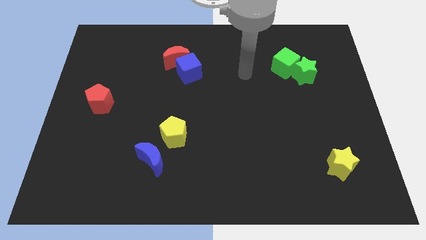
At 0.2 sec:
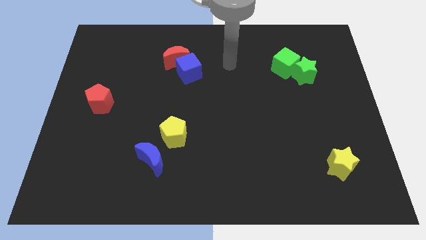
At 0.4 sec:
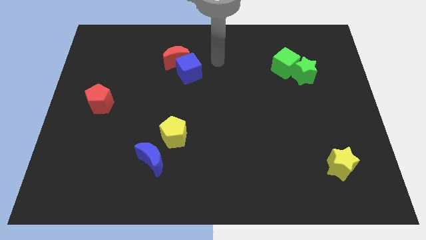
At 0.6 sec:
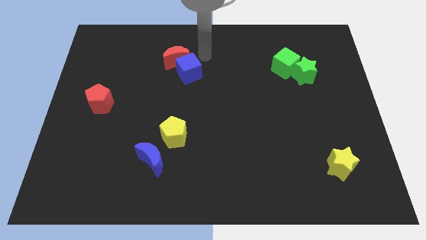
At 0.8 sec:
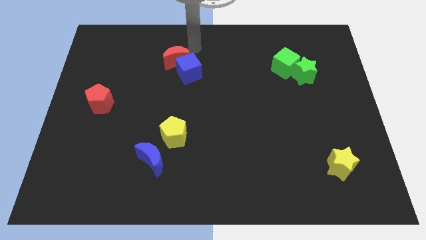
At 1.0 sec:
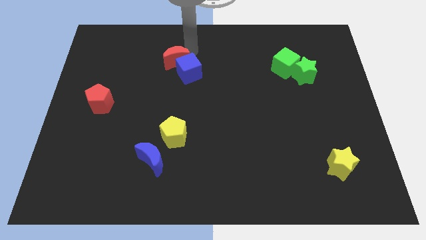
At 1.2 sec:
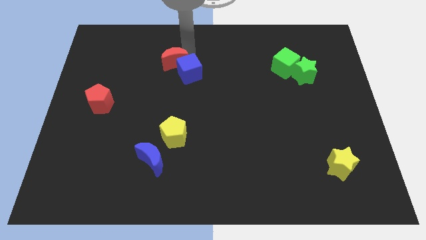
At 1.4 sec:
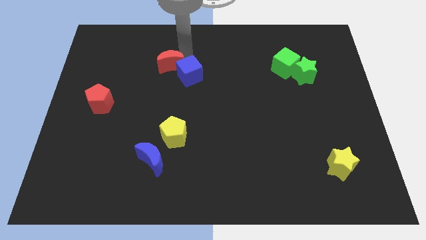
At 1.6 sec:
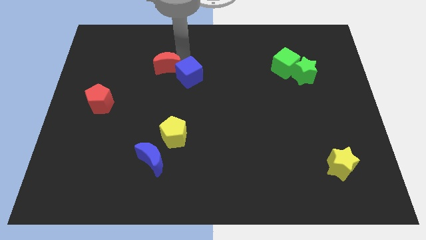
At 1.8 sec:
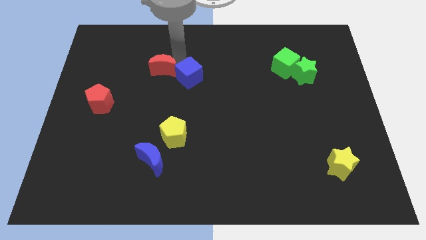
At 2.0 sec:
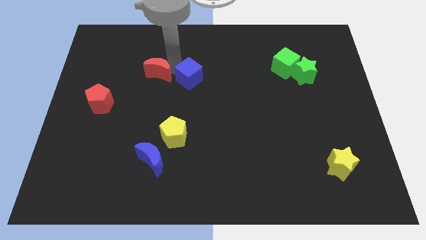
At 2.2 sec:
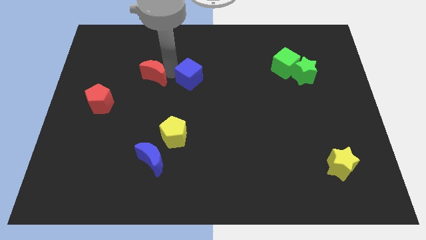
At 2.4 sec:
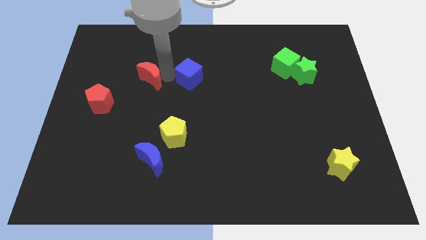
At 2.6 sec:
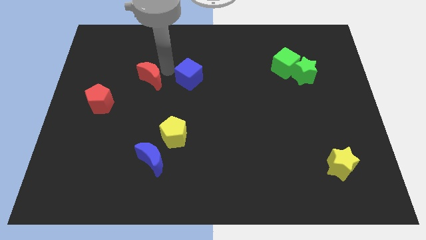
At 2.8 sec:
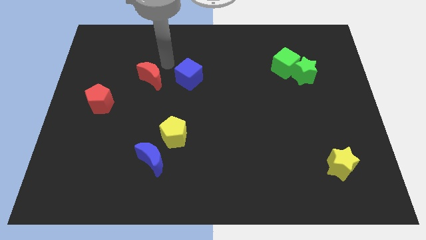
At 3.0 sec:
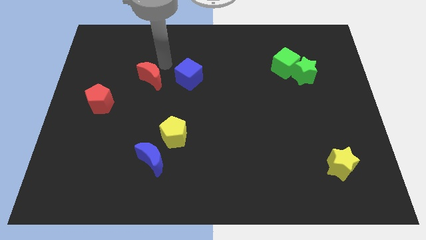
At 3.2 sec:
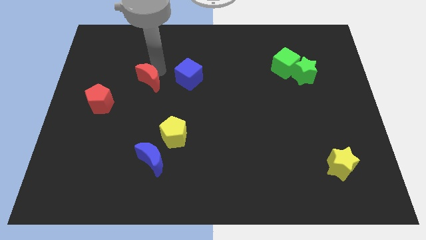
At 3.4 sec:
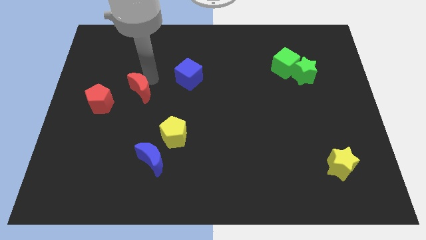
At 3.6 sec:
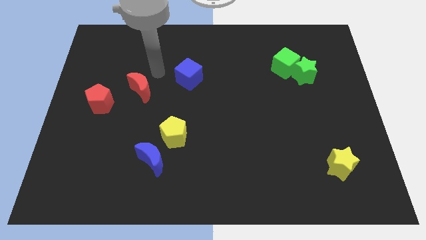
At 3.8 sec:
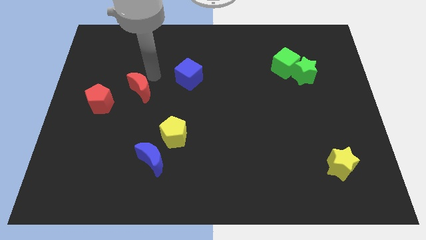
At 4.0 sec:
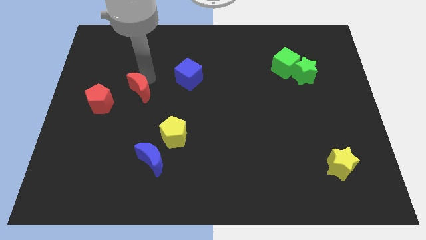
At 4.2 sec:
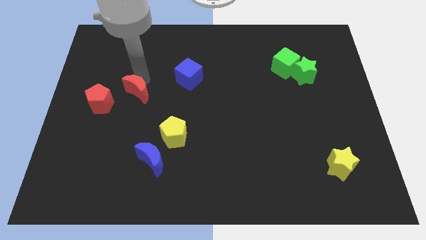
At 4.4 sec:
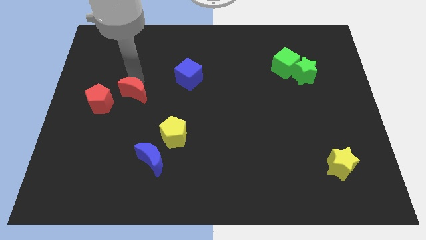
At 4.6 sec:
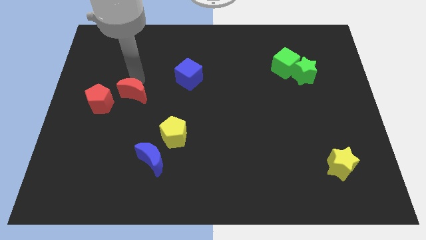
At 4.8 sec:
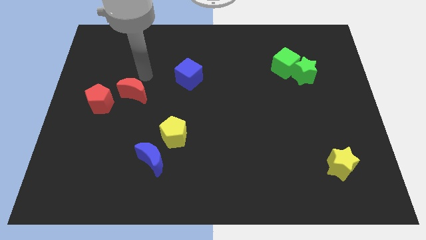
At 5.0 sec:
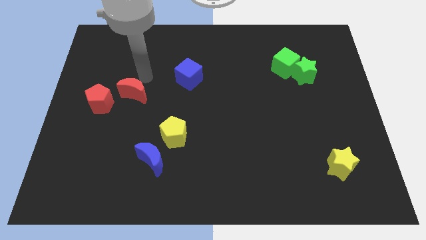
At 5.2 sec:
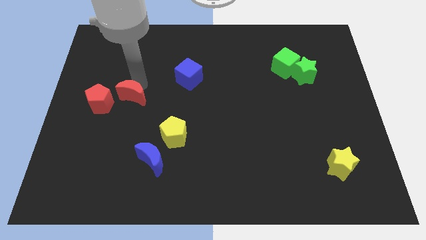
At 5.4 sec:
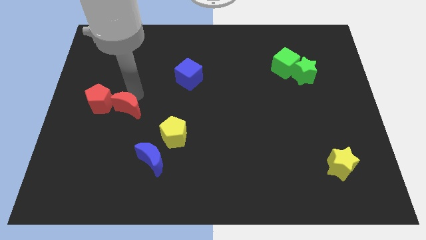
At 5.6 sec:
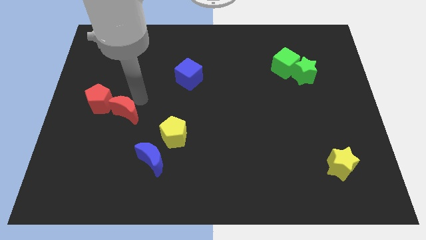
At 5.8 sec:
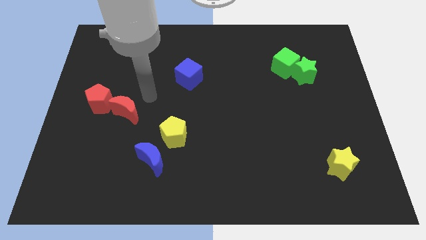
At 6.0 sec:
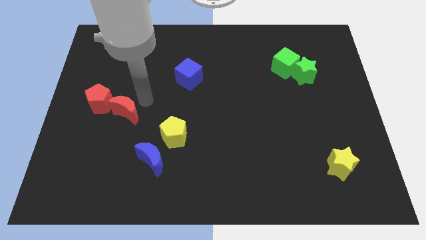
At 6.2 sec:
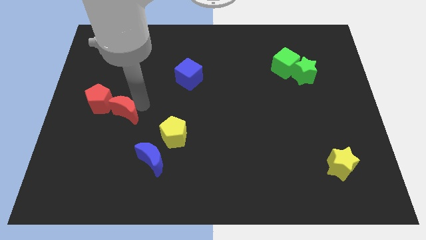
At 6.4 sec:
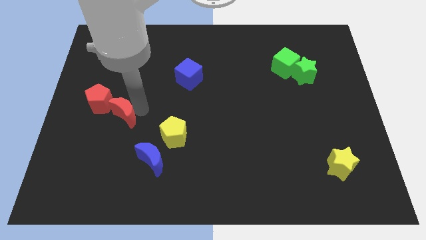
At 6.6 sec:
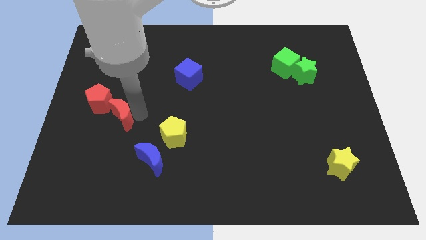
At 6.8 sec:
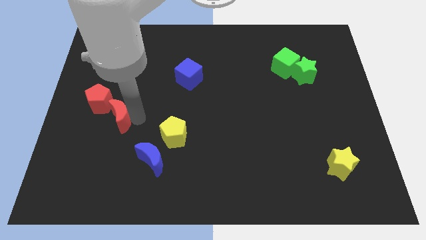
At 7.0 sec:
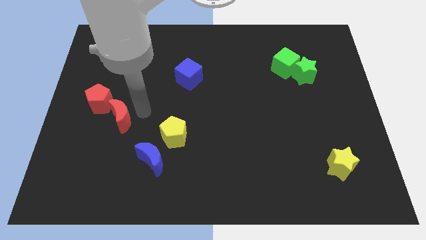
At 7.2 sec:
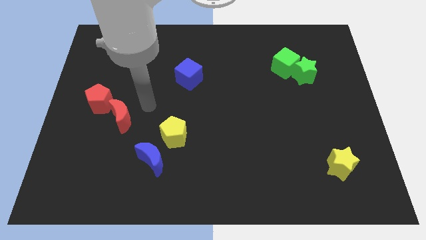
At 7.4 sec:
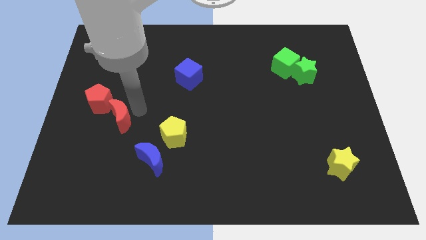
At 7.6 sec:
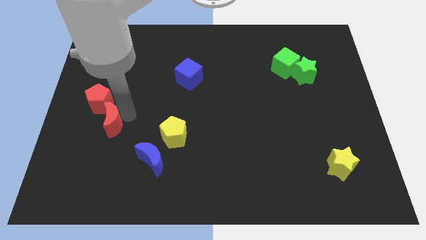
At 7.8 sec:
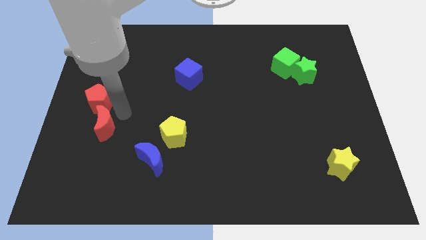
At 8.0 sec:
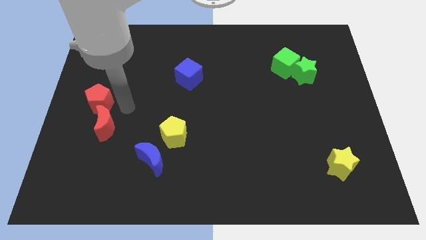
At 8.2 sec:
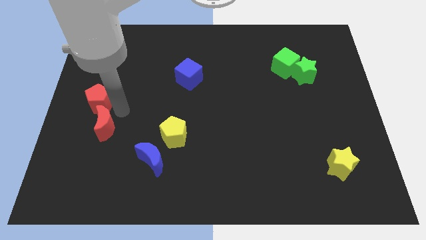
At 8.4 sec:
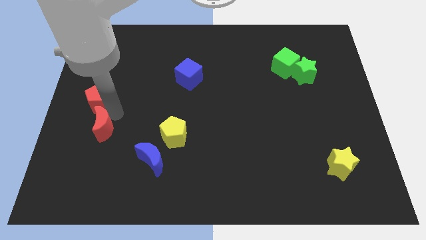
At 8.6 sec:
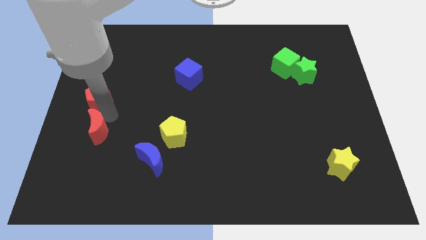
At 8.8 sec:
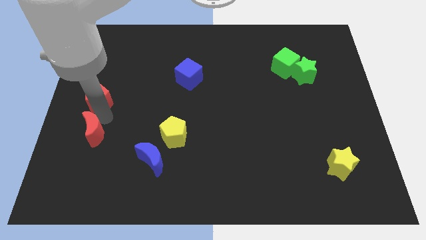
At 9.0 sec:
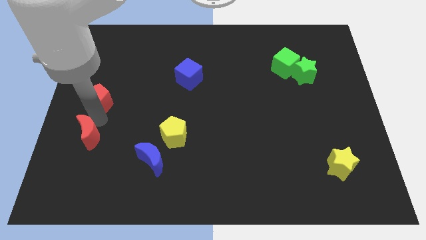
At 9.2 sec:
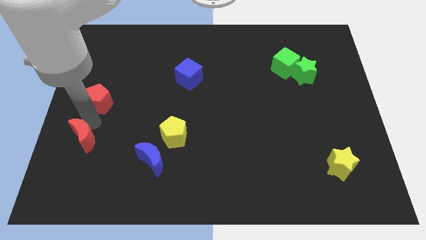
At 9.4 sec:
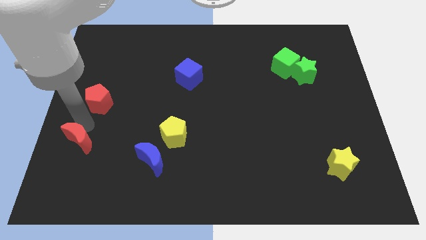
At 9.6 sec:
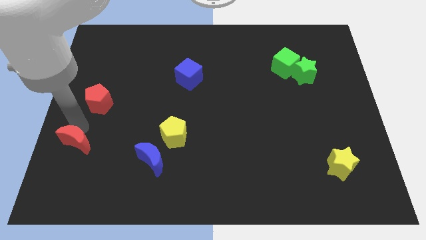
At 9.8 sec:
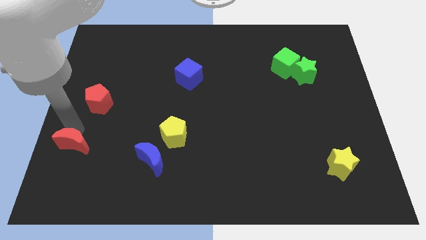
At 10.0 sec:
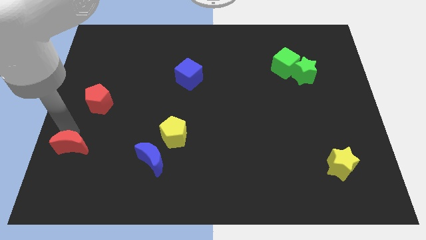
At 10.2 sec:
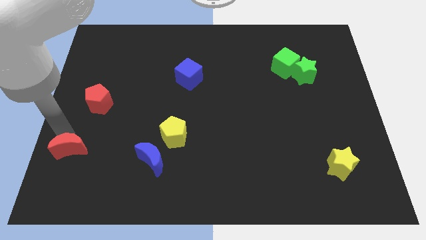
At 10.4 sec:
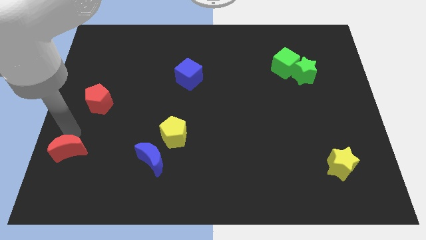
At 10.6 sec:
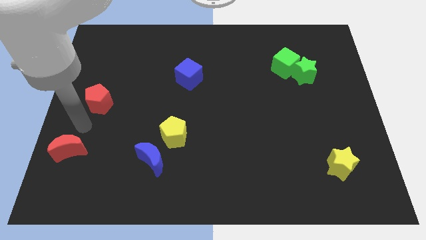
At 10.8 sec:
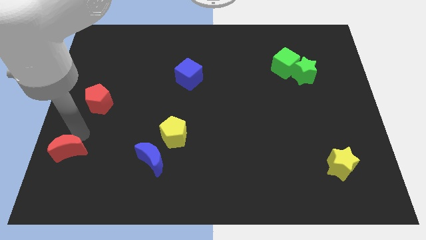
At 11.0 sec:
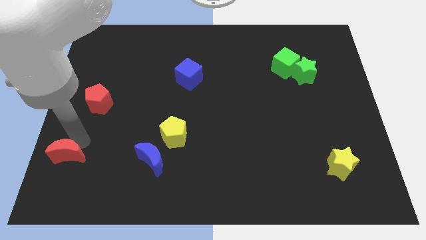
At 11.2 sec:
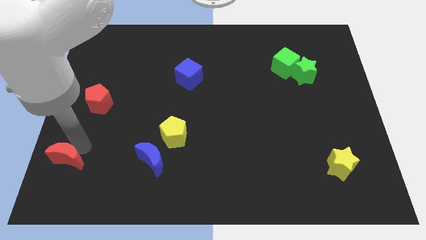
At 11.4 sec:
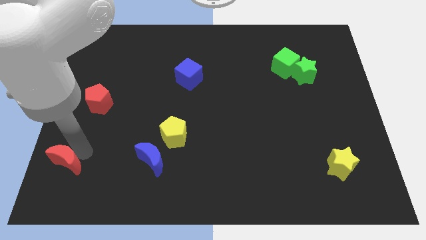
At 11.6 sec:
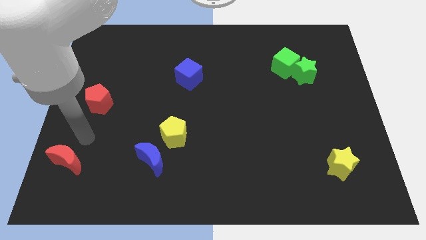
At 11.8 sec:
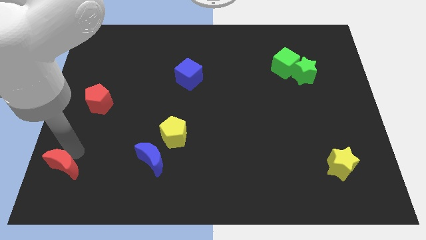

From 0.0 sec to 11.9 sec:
move the red moon to the bottom left

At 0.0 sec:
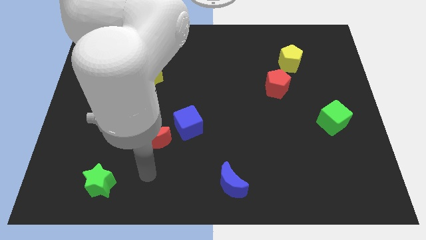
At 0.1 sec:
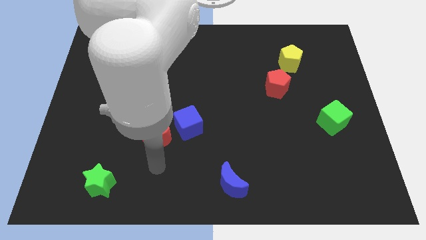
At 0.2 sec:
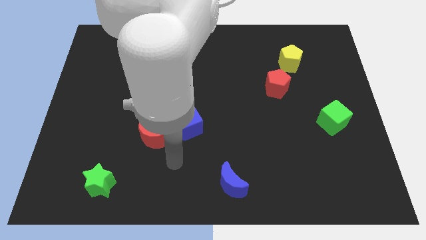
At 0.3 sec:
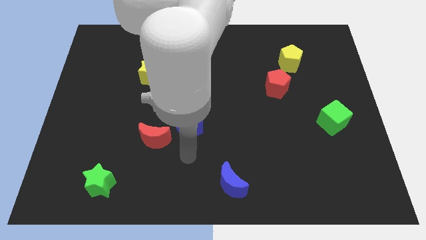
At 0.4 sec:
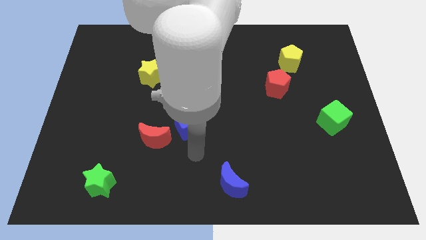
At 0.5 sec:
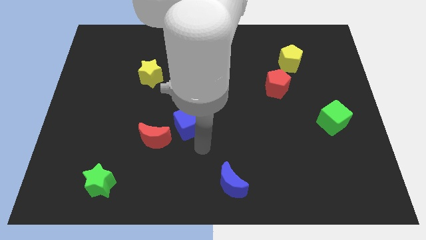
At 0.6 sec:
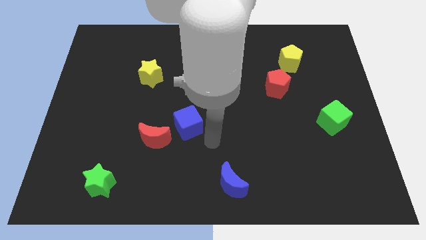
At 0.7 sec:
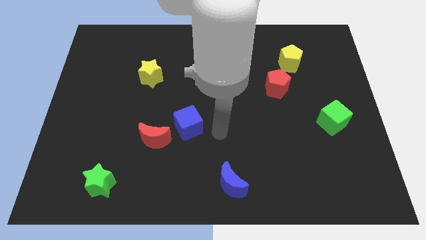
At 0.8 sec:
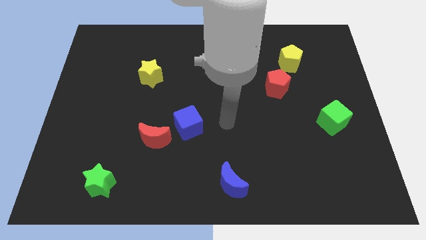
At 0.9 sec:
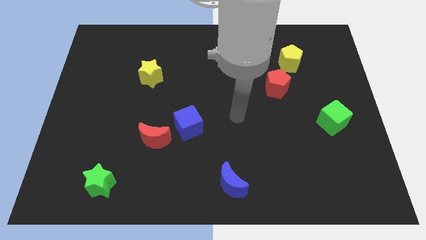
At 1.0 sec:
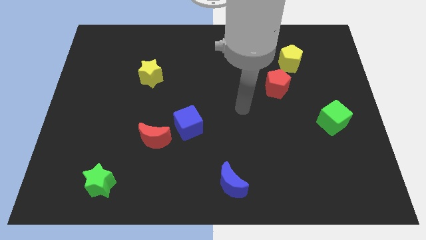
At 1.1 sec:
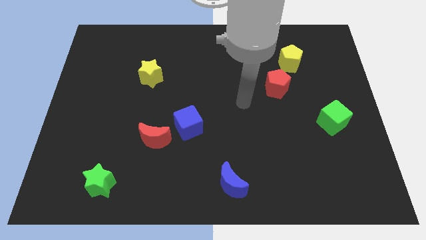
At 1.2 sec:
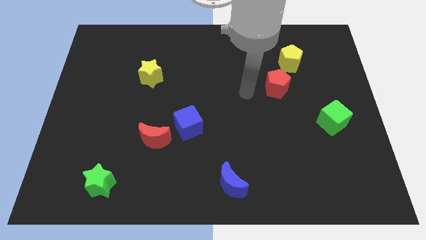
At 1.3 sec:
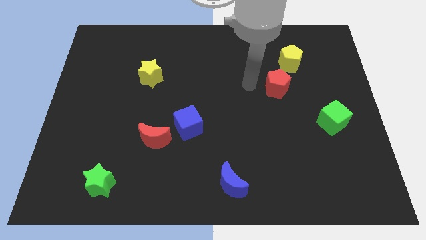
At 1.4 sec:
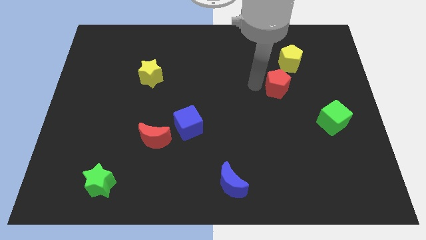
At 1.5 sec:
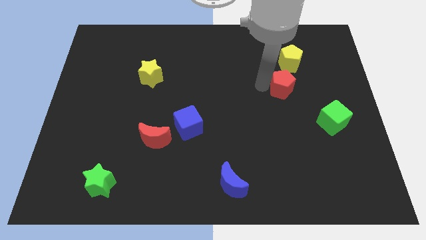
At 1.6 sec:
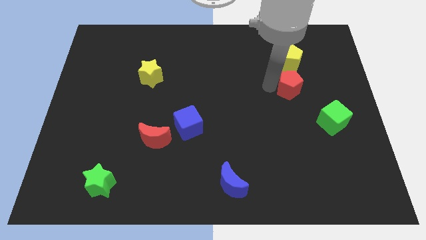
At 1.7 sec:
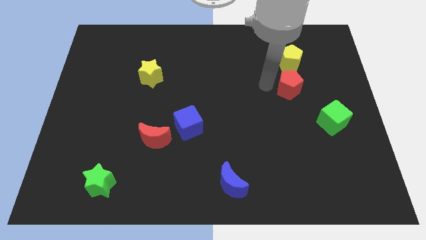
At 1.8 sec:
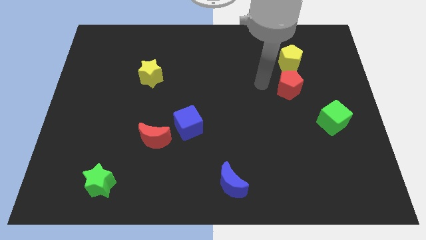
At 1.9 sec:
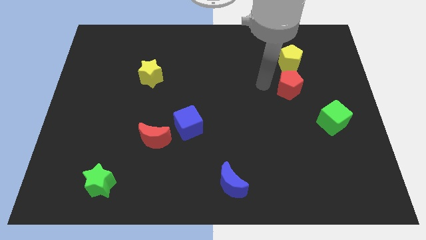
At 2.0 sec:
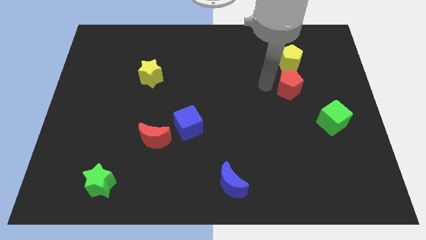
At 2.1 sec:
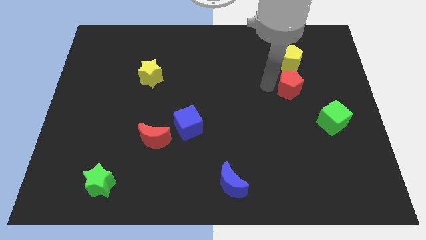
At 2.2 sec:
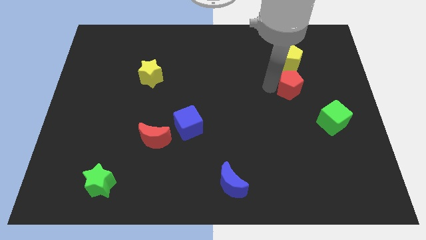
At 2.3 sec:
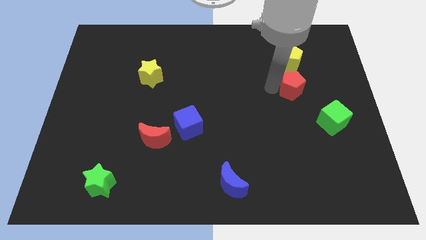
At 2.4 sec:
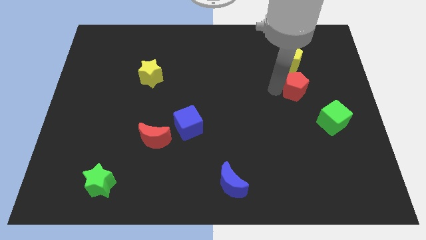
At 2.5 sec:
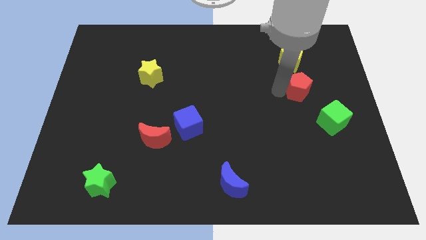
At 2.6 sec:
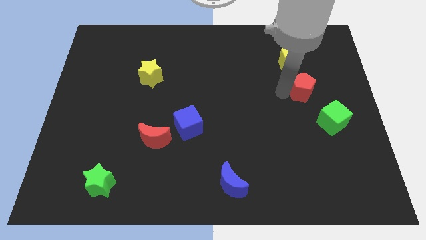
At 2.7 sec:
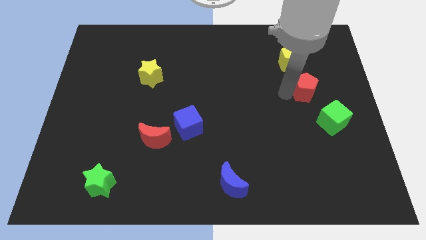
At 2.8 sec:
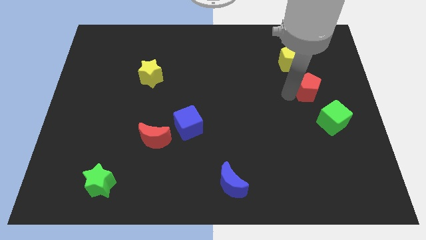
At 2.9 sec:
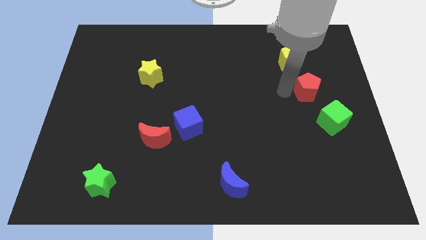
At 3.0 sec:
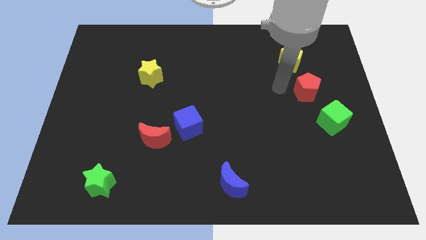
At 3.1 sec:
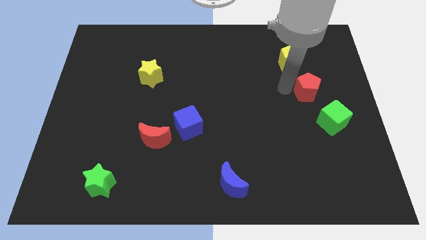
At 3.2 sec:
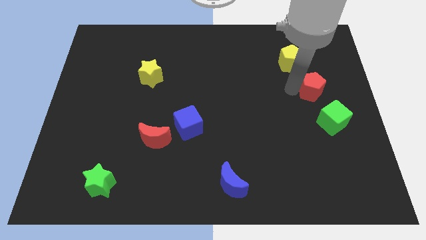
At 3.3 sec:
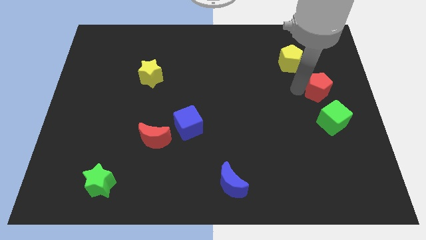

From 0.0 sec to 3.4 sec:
move the red pentagon to the center right
